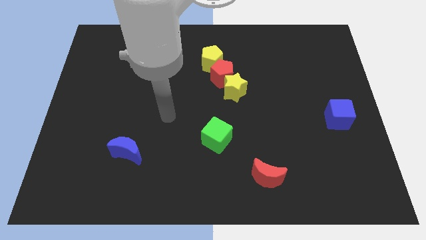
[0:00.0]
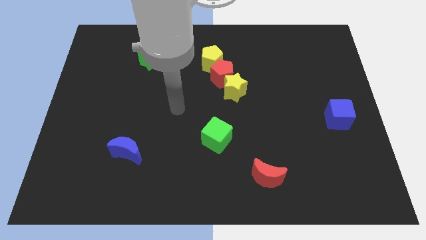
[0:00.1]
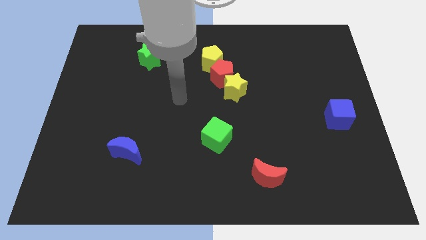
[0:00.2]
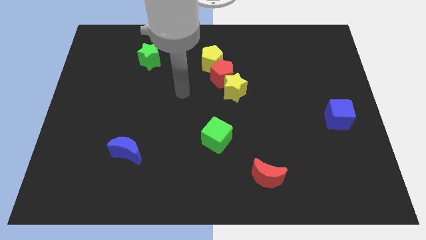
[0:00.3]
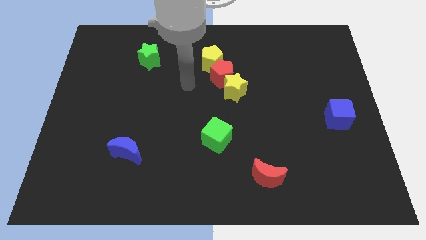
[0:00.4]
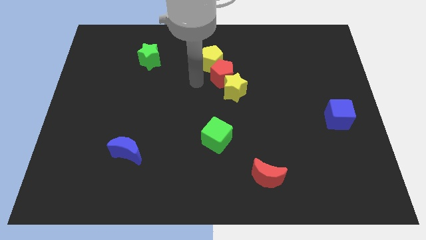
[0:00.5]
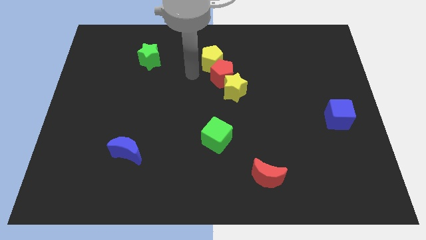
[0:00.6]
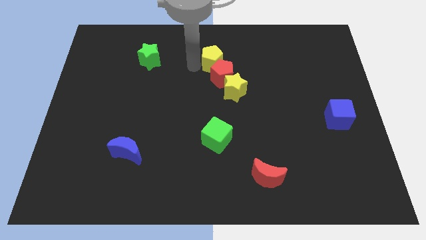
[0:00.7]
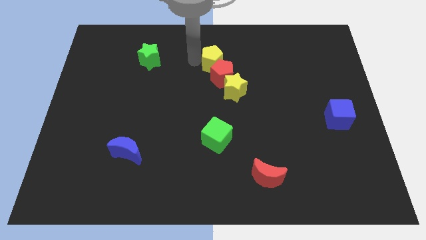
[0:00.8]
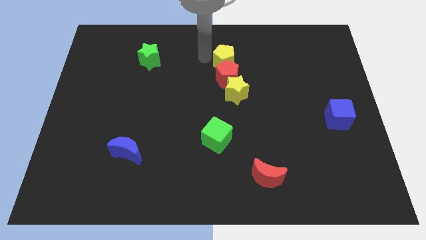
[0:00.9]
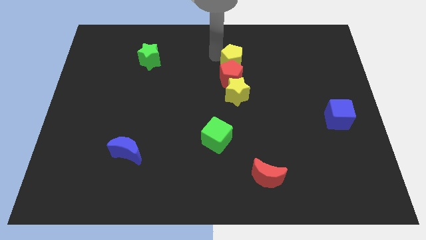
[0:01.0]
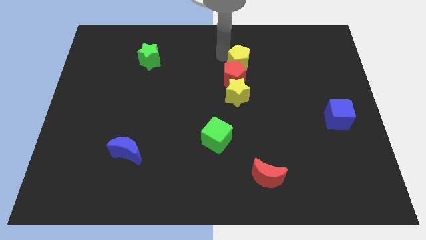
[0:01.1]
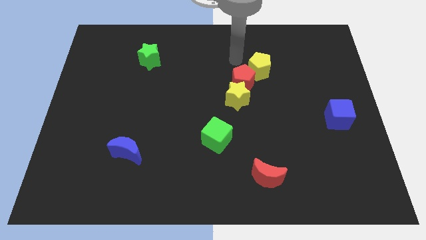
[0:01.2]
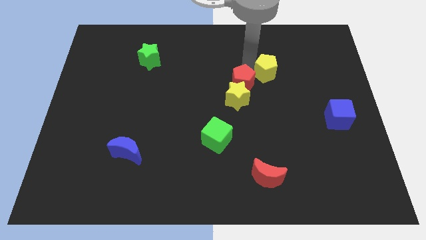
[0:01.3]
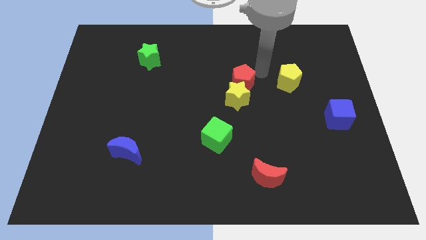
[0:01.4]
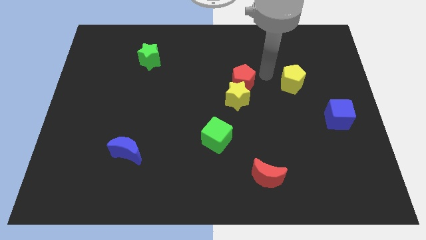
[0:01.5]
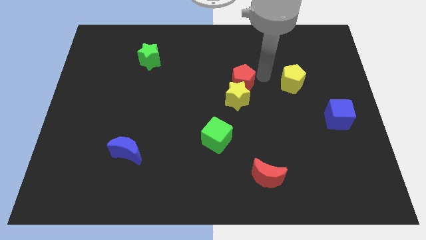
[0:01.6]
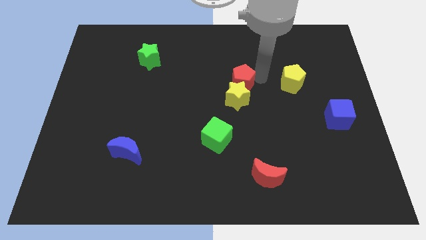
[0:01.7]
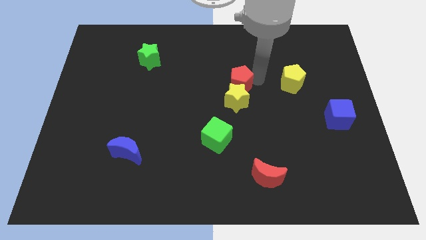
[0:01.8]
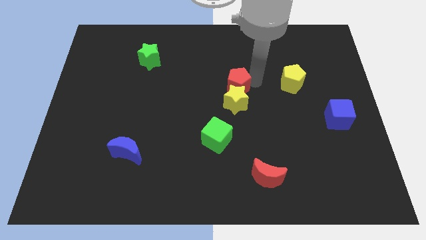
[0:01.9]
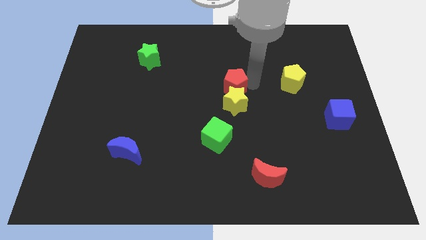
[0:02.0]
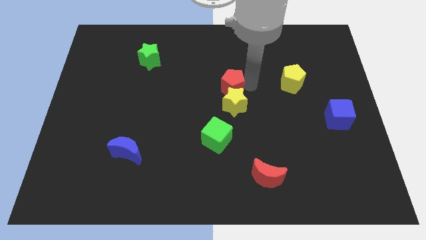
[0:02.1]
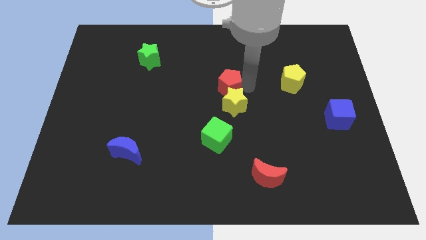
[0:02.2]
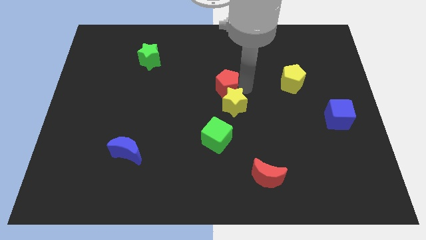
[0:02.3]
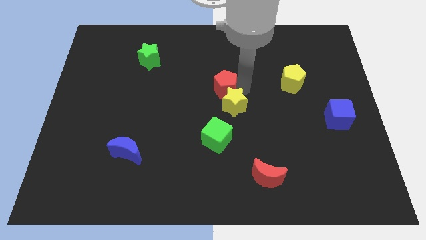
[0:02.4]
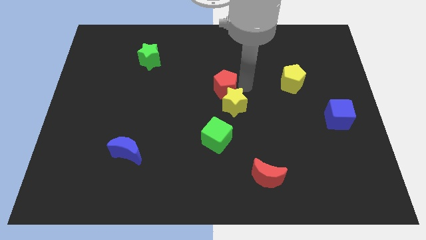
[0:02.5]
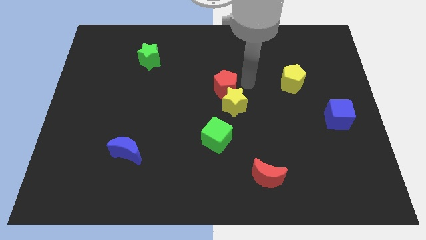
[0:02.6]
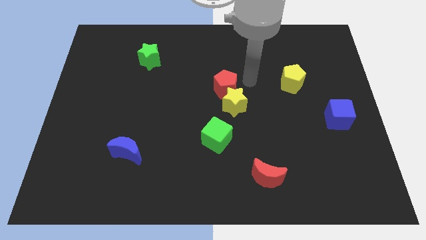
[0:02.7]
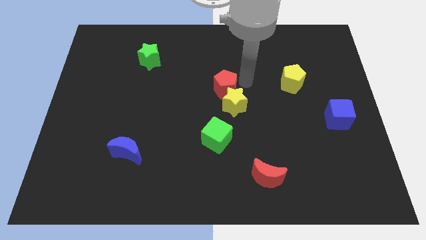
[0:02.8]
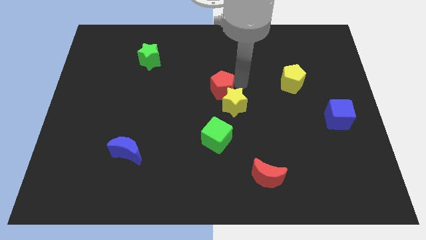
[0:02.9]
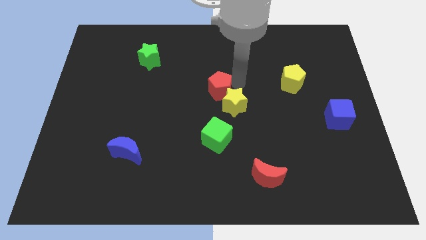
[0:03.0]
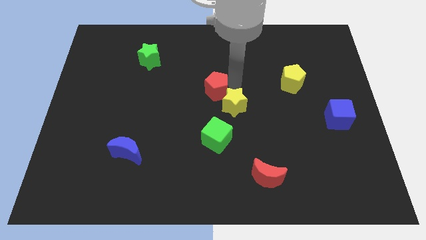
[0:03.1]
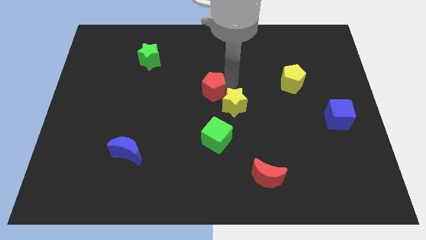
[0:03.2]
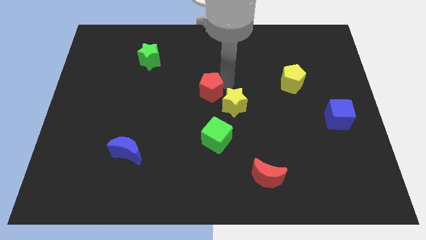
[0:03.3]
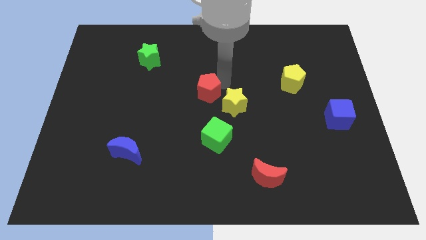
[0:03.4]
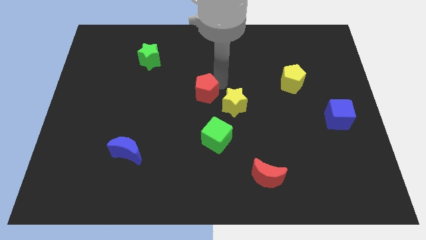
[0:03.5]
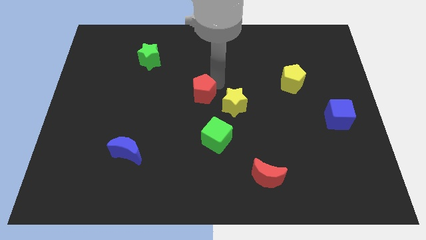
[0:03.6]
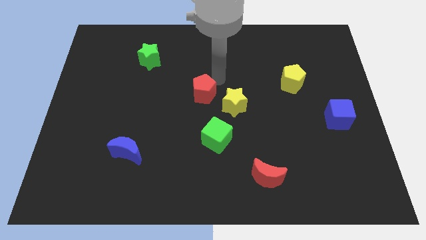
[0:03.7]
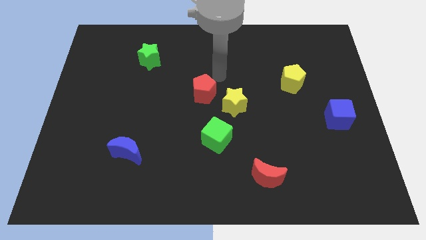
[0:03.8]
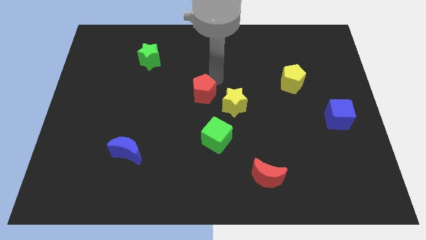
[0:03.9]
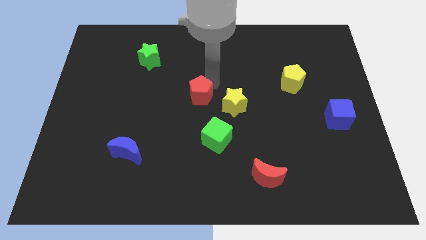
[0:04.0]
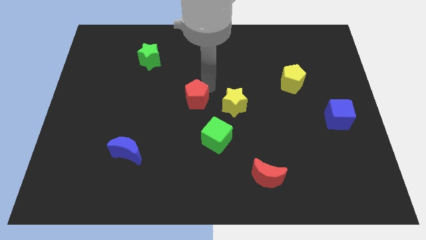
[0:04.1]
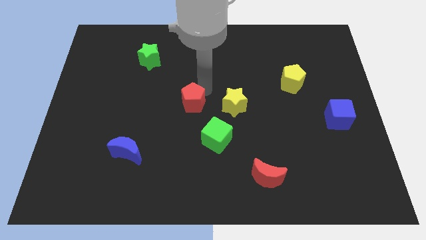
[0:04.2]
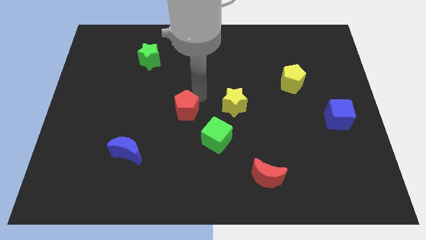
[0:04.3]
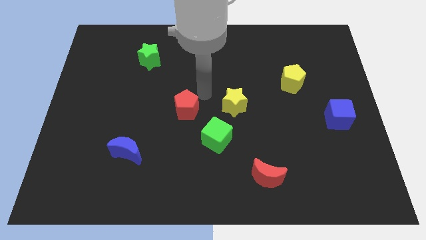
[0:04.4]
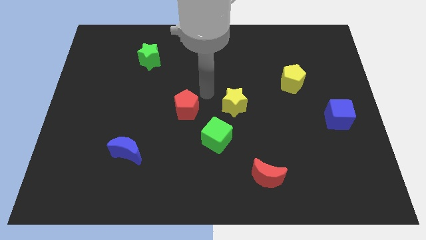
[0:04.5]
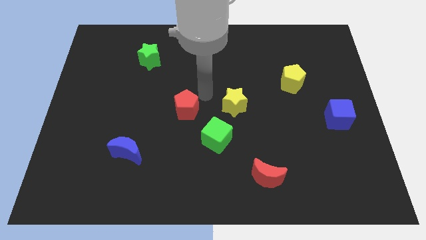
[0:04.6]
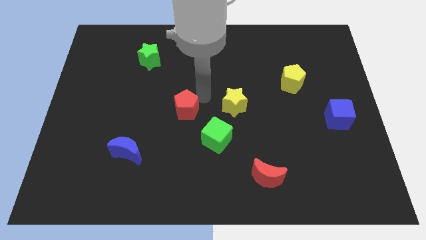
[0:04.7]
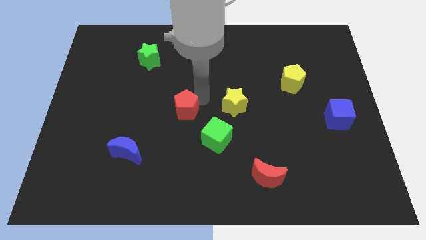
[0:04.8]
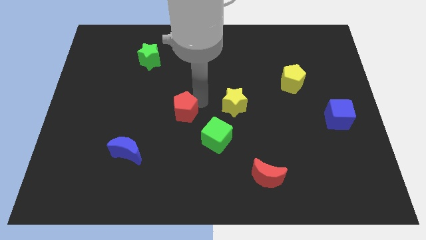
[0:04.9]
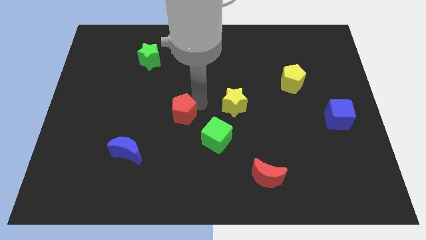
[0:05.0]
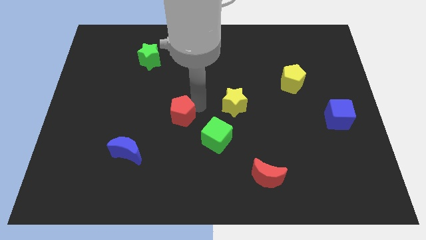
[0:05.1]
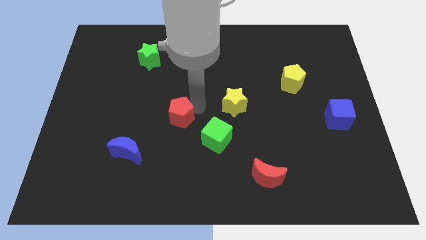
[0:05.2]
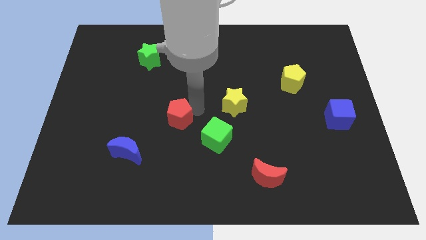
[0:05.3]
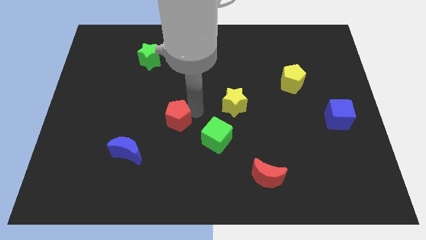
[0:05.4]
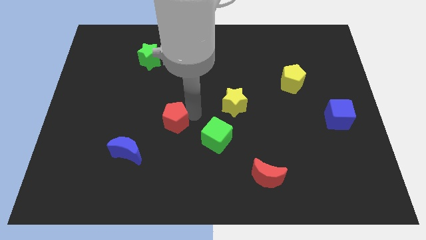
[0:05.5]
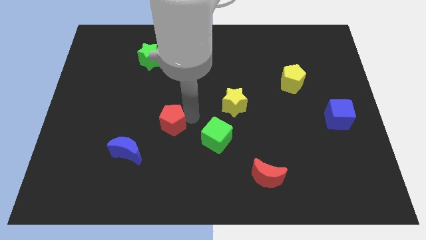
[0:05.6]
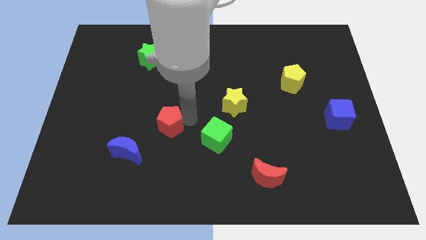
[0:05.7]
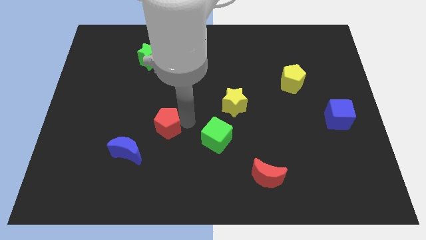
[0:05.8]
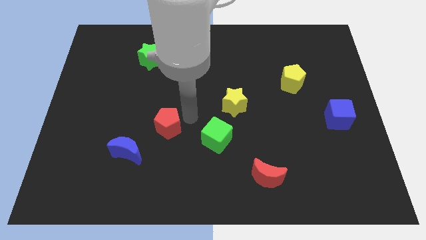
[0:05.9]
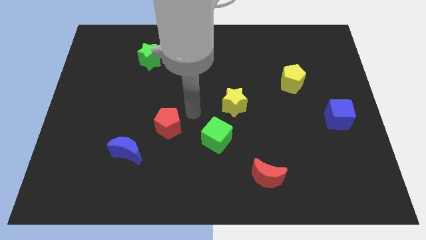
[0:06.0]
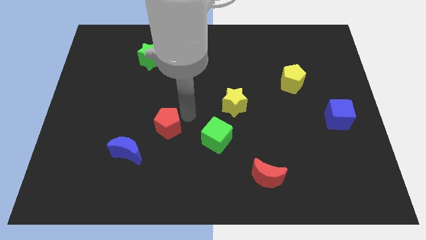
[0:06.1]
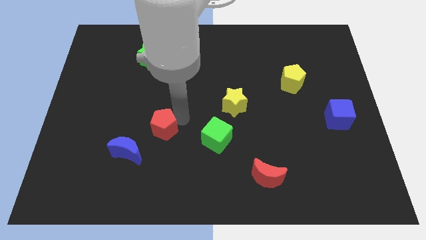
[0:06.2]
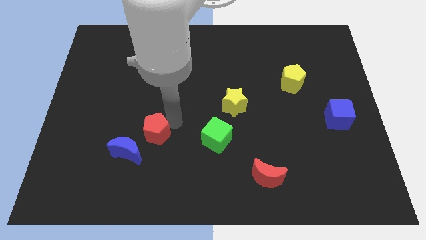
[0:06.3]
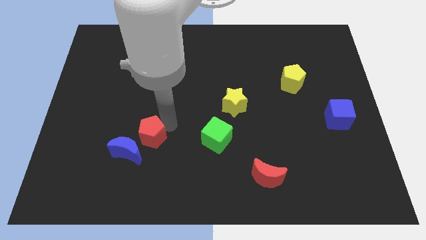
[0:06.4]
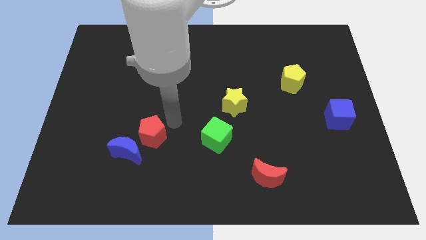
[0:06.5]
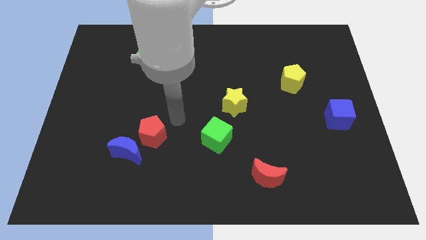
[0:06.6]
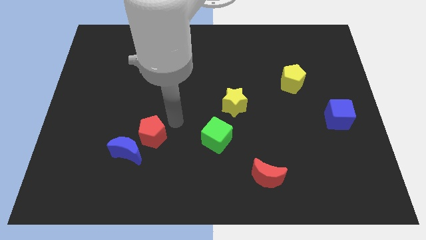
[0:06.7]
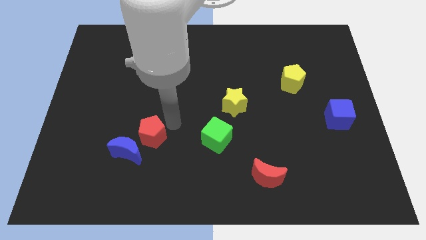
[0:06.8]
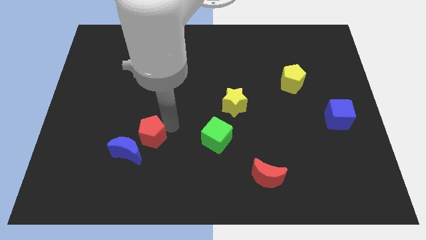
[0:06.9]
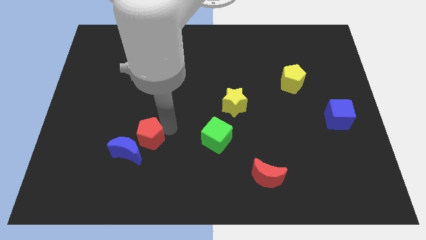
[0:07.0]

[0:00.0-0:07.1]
push the red pentagon close to the blue moon

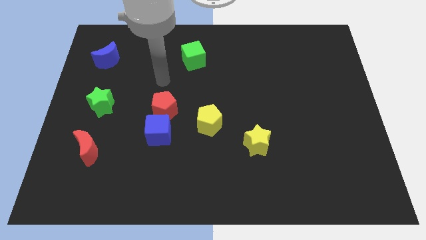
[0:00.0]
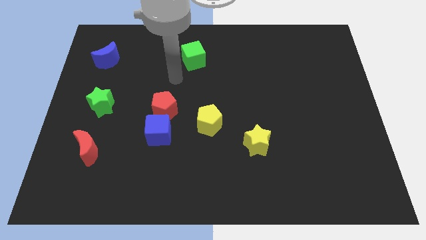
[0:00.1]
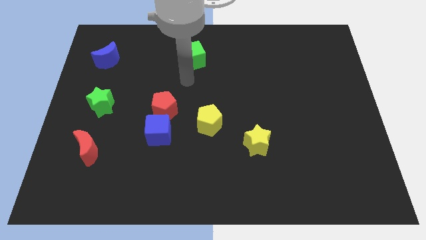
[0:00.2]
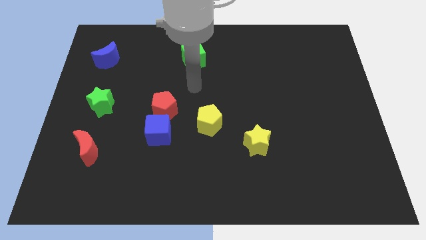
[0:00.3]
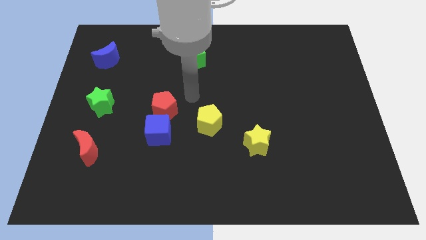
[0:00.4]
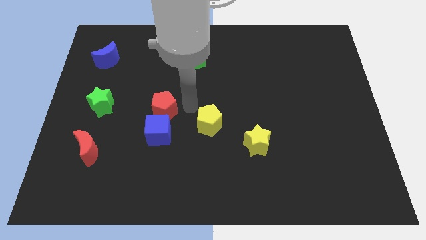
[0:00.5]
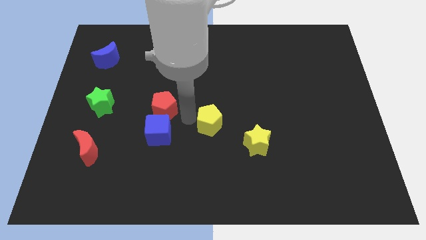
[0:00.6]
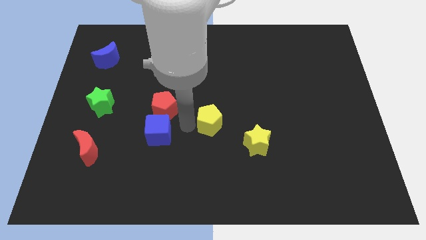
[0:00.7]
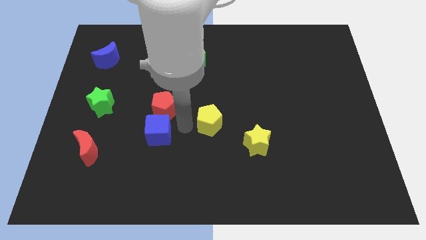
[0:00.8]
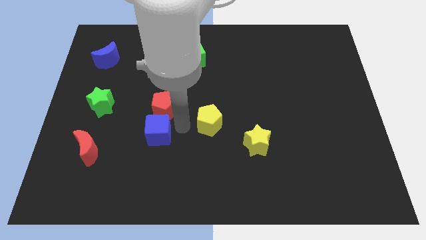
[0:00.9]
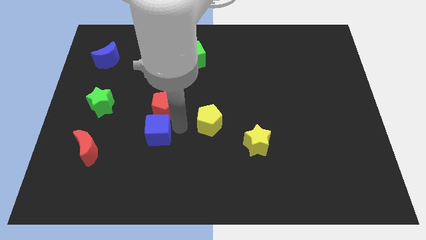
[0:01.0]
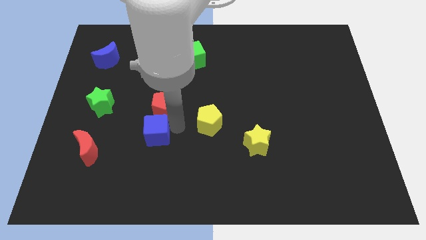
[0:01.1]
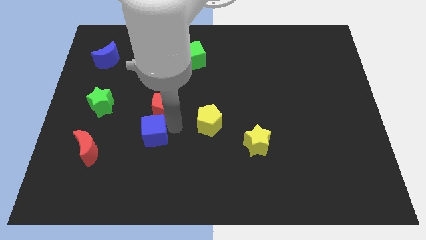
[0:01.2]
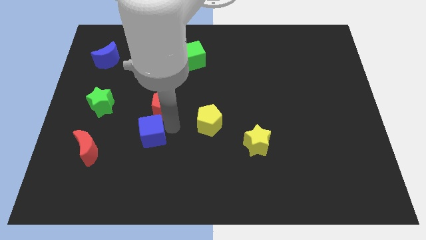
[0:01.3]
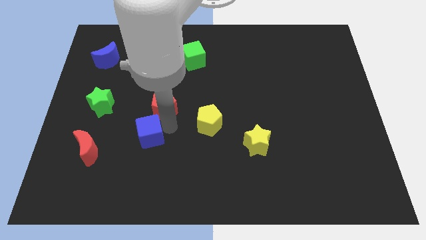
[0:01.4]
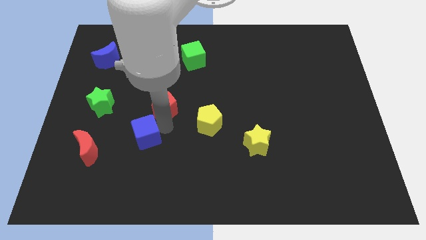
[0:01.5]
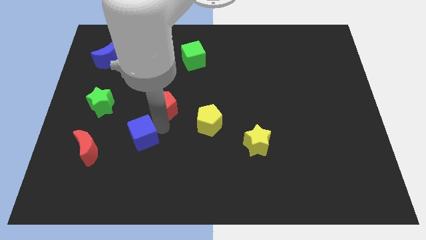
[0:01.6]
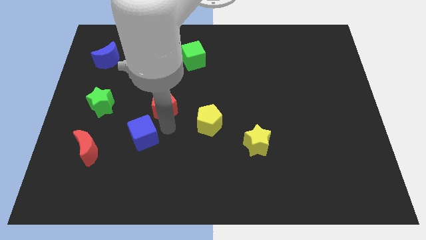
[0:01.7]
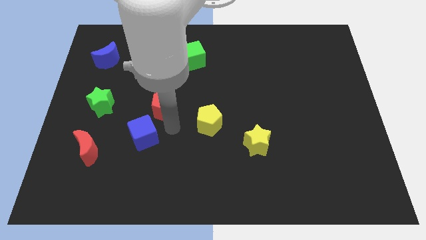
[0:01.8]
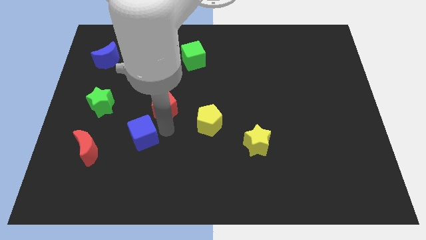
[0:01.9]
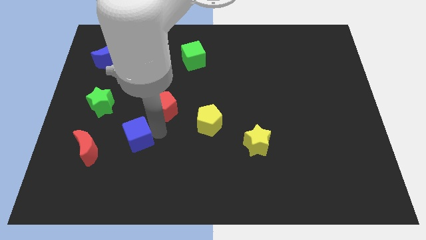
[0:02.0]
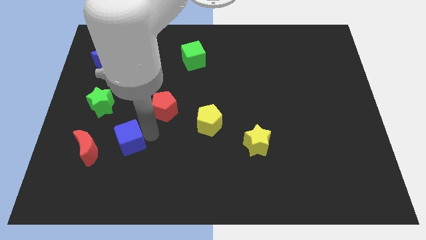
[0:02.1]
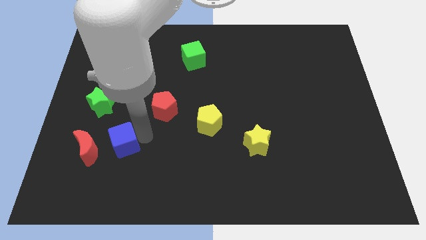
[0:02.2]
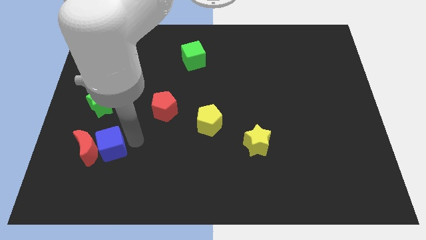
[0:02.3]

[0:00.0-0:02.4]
slide the blue cube close to the red moon
